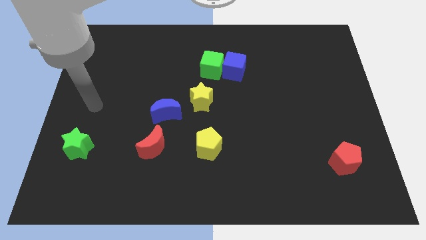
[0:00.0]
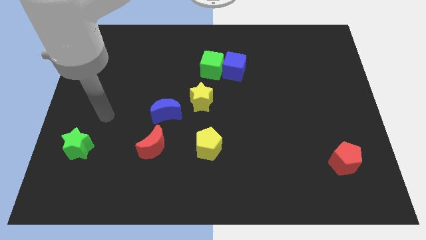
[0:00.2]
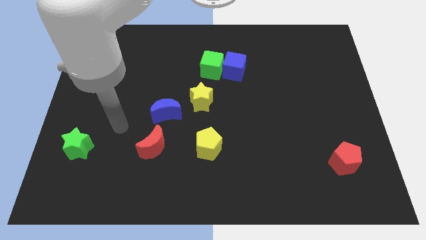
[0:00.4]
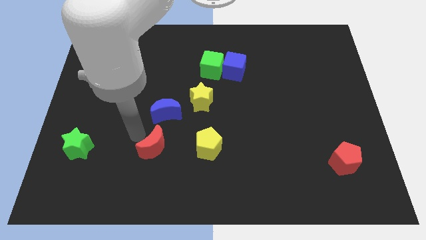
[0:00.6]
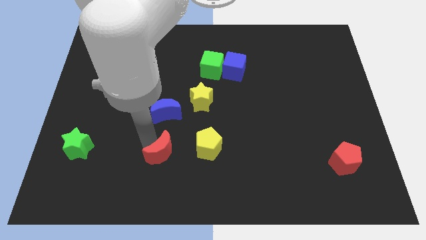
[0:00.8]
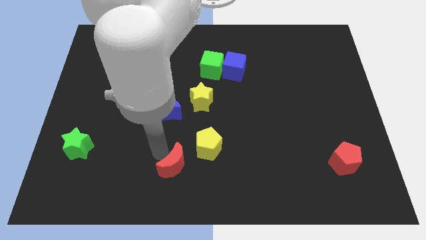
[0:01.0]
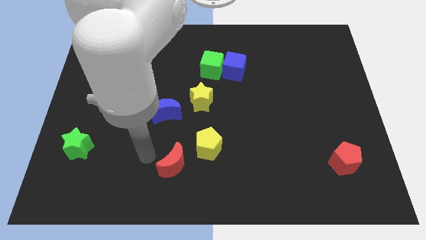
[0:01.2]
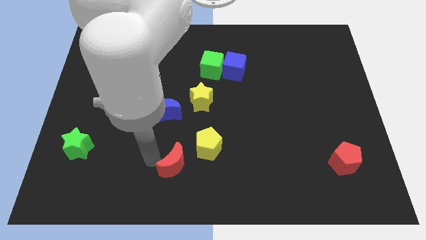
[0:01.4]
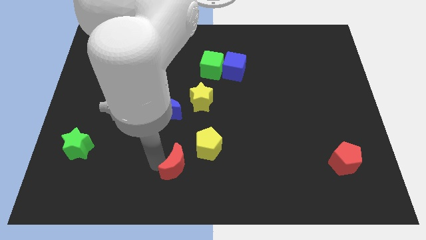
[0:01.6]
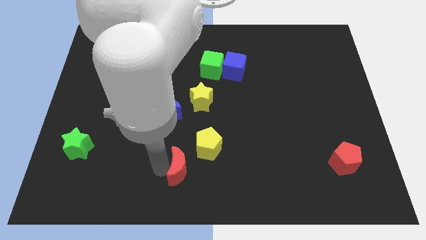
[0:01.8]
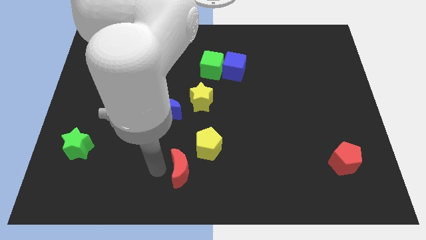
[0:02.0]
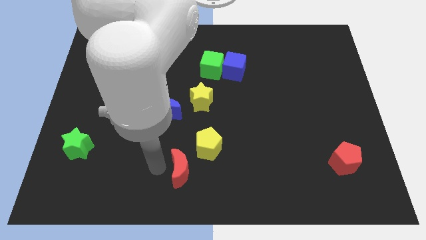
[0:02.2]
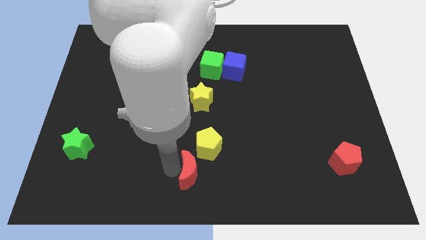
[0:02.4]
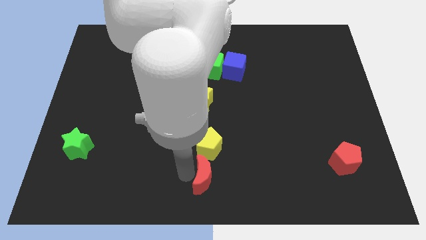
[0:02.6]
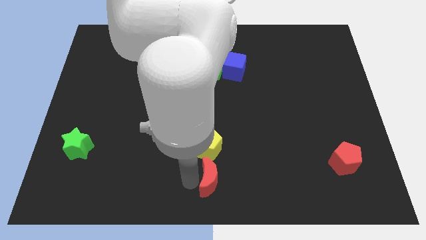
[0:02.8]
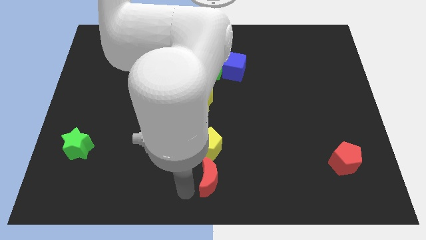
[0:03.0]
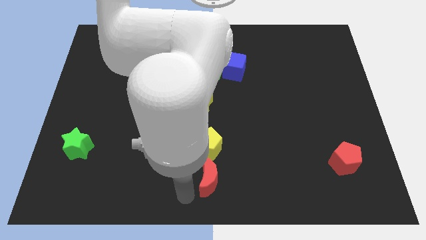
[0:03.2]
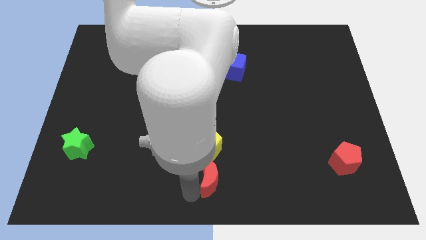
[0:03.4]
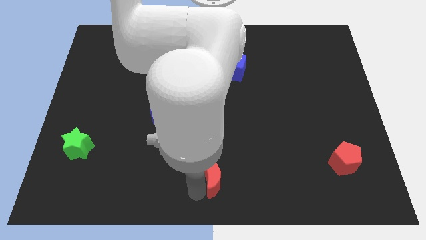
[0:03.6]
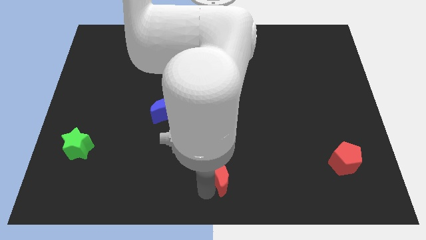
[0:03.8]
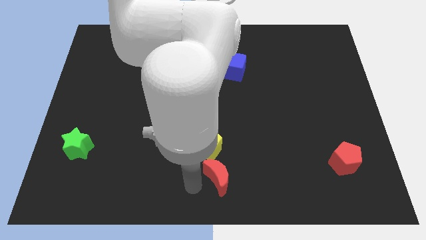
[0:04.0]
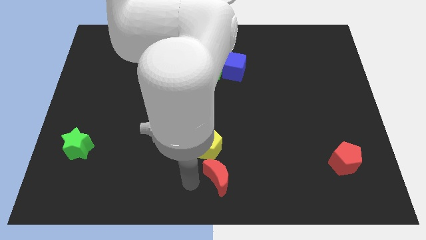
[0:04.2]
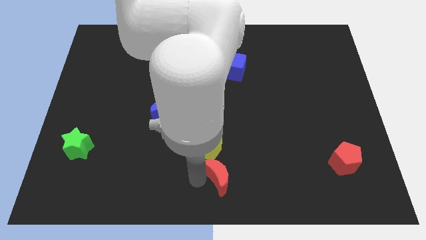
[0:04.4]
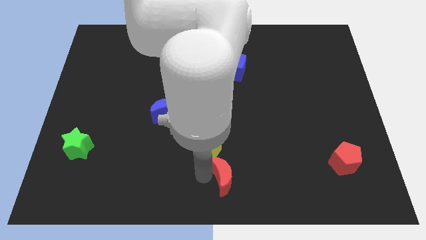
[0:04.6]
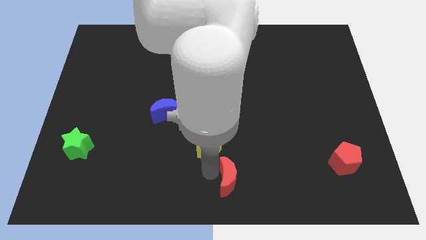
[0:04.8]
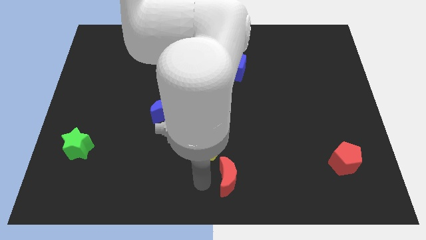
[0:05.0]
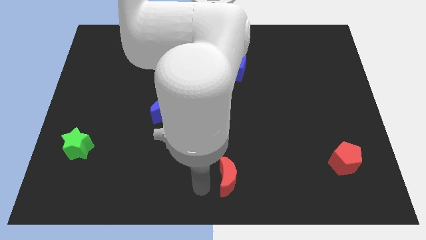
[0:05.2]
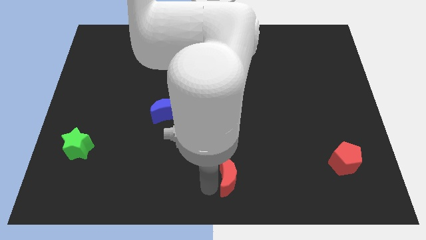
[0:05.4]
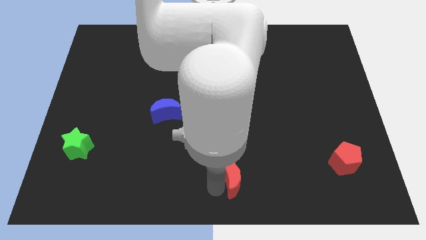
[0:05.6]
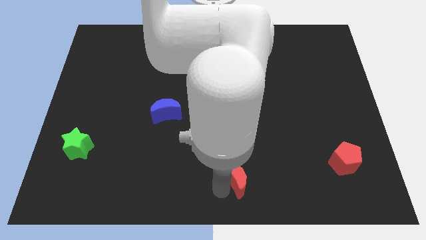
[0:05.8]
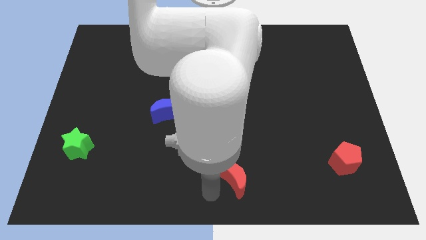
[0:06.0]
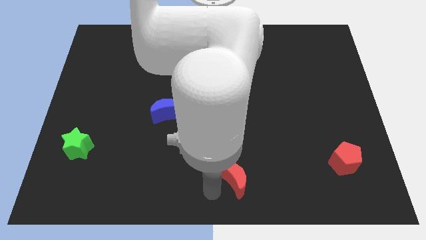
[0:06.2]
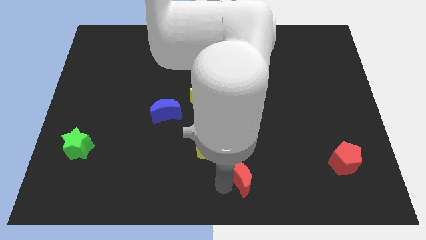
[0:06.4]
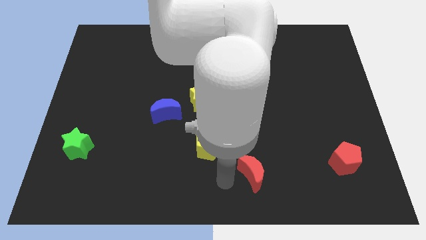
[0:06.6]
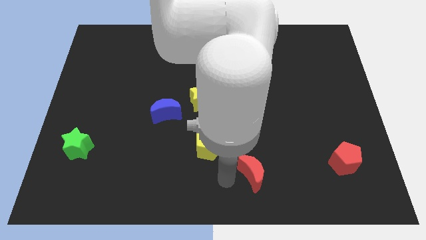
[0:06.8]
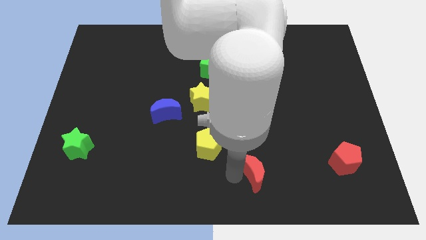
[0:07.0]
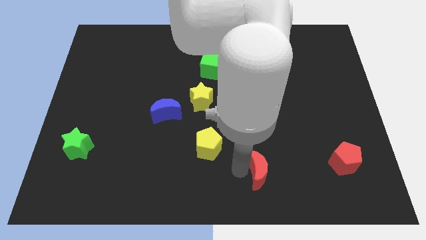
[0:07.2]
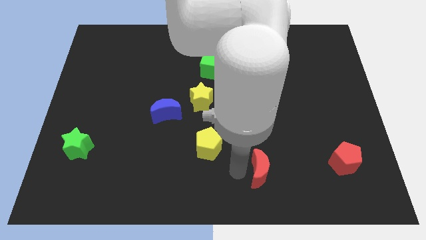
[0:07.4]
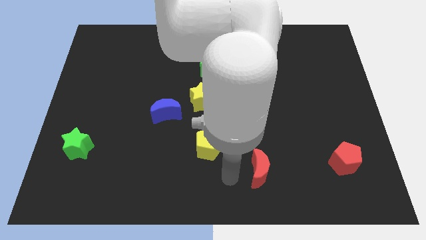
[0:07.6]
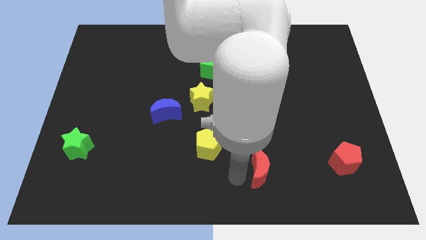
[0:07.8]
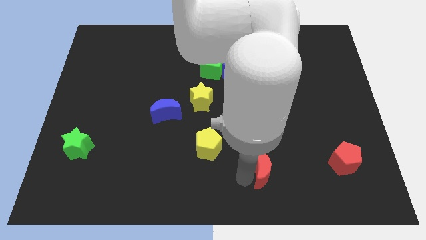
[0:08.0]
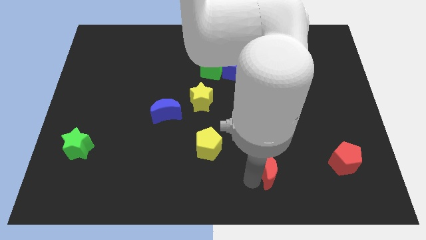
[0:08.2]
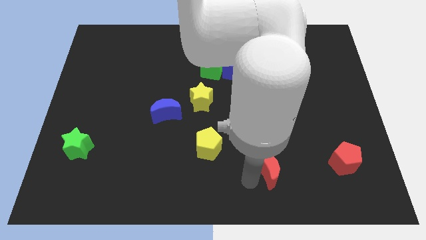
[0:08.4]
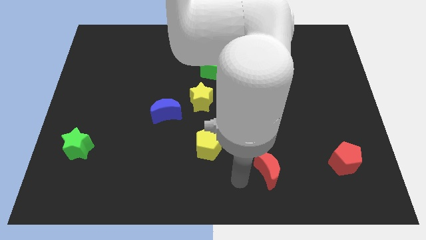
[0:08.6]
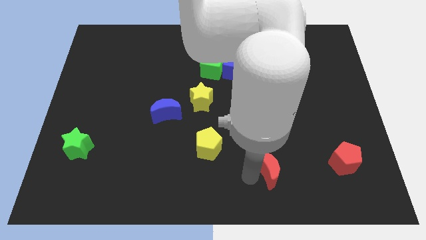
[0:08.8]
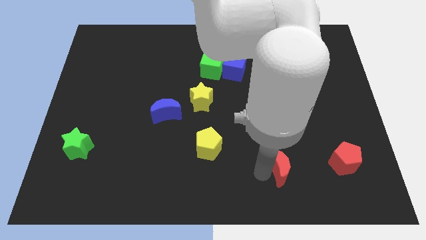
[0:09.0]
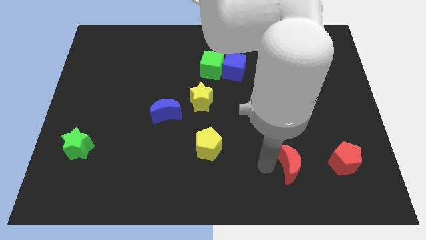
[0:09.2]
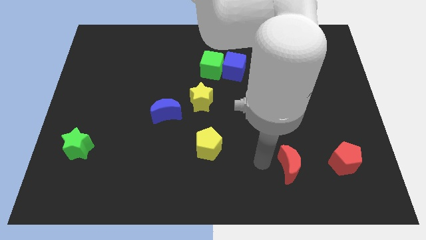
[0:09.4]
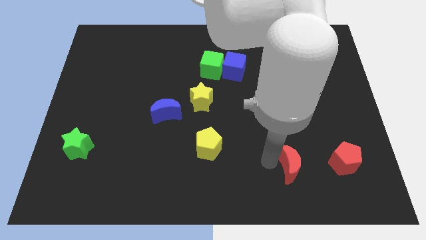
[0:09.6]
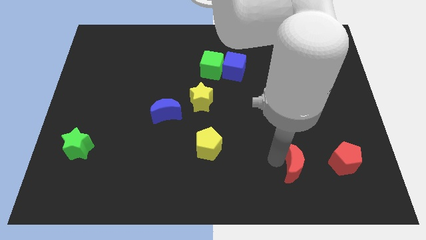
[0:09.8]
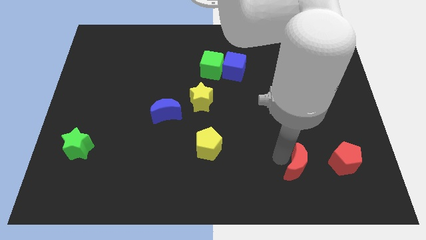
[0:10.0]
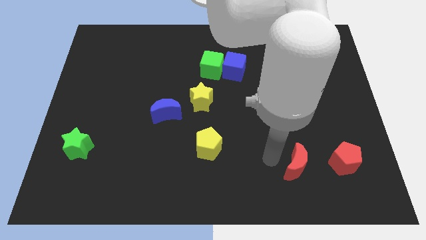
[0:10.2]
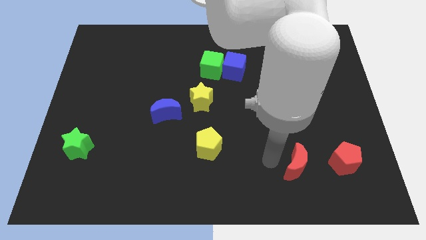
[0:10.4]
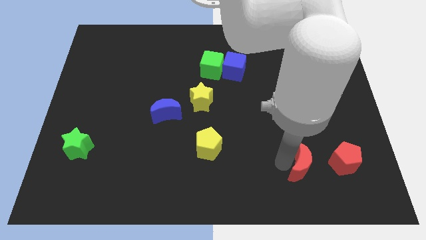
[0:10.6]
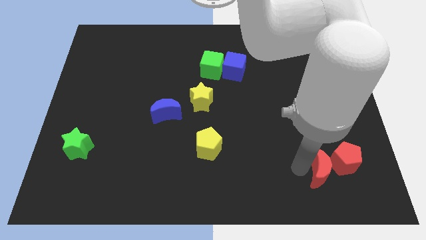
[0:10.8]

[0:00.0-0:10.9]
put the red moon towards the red pentagon

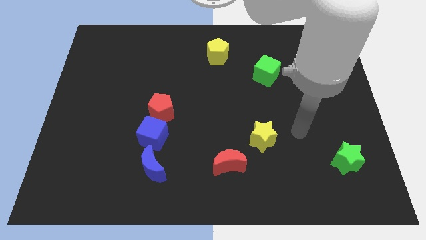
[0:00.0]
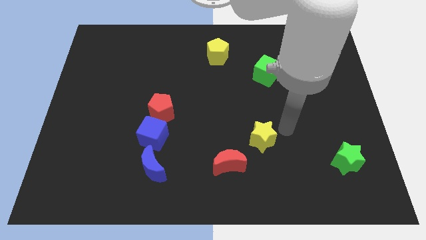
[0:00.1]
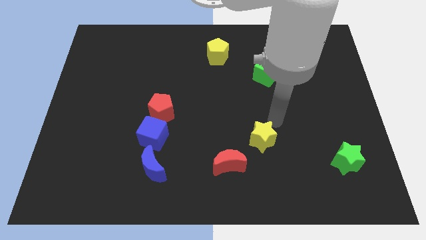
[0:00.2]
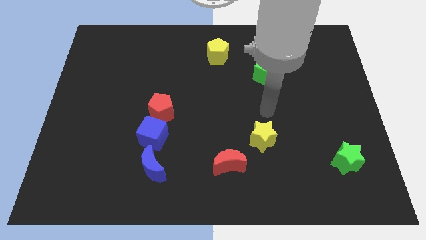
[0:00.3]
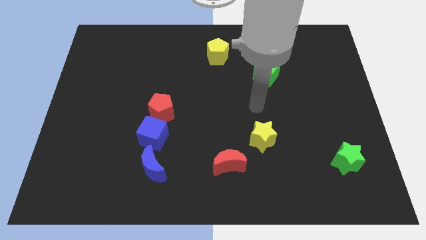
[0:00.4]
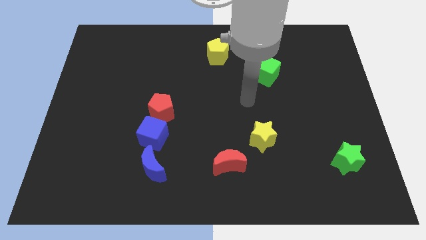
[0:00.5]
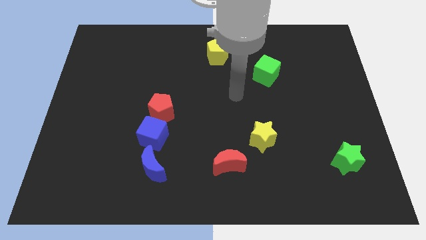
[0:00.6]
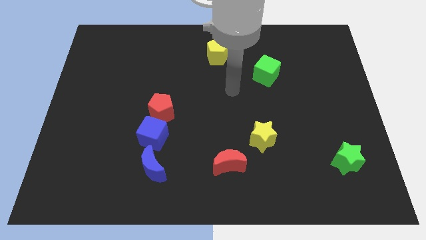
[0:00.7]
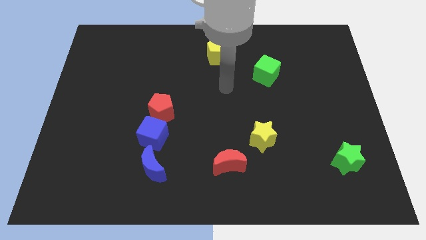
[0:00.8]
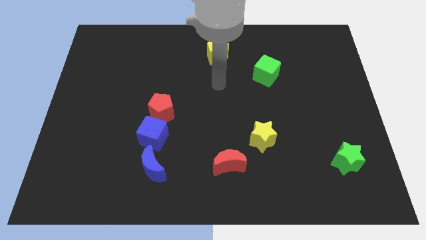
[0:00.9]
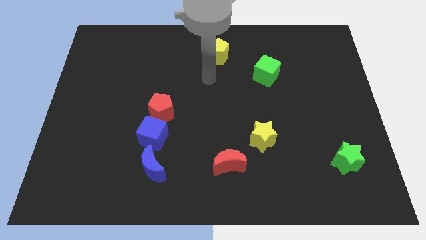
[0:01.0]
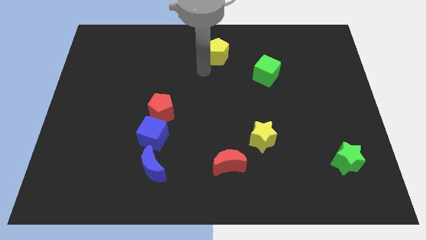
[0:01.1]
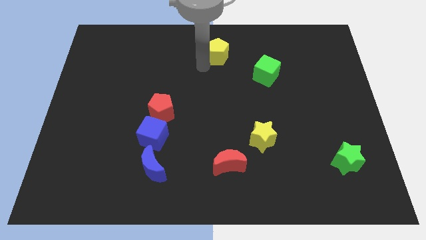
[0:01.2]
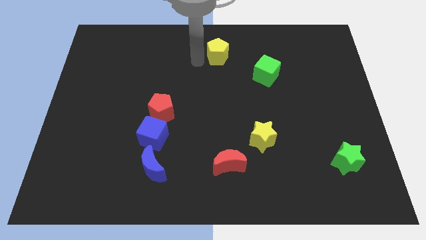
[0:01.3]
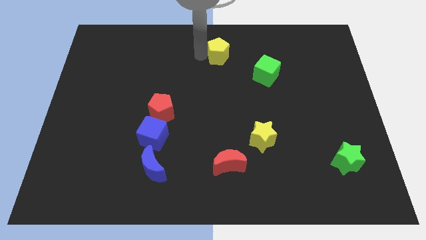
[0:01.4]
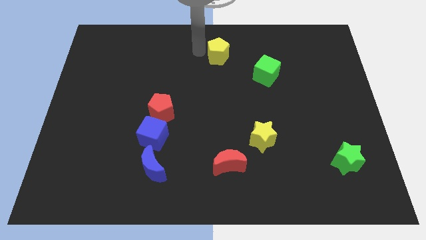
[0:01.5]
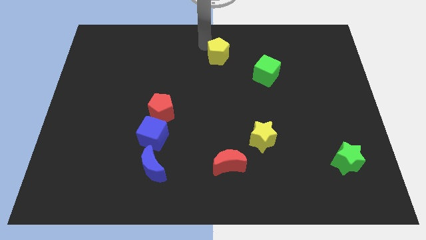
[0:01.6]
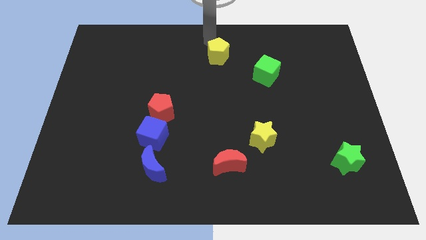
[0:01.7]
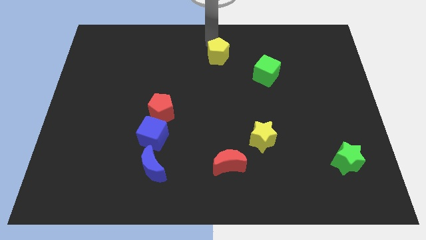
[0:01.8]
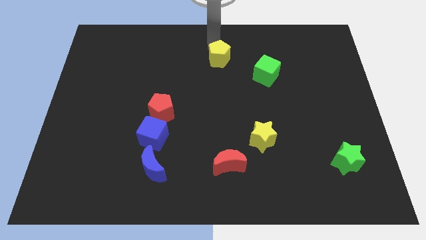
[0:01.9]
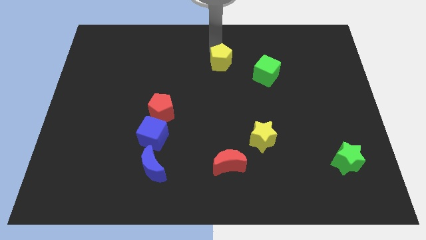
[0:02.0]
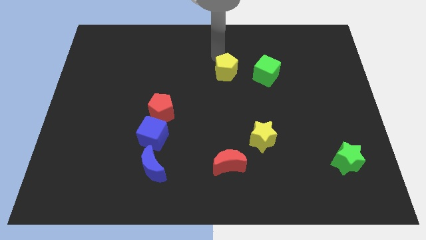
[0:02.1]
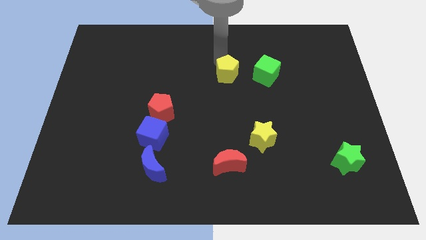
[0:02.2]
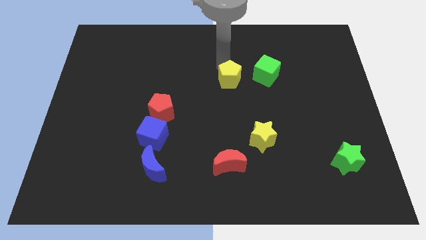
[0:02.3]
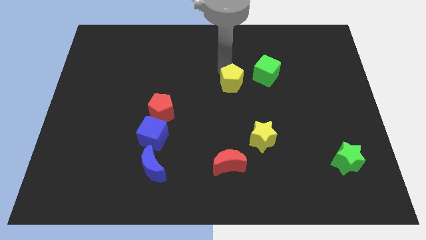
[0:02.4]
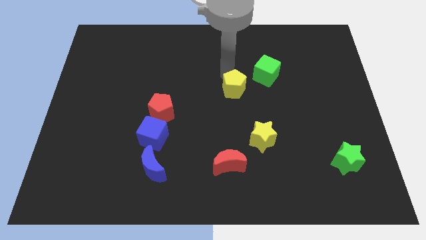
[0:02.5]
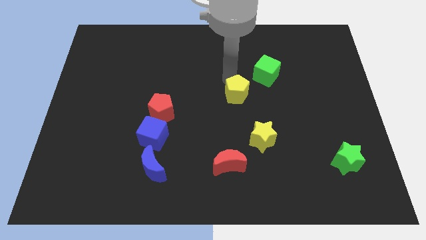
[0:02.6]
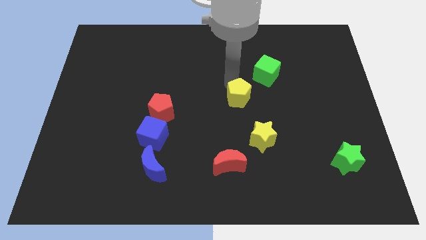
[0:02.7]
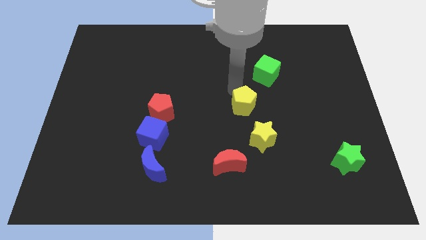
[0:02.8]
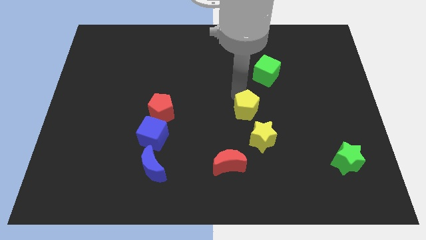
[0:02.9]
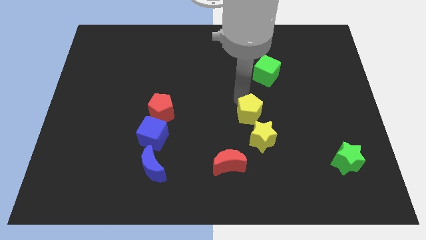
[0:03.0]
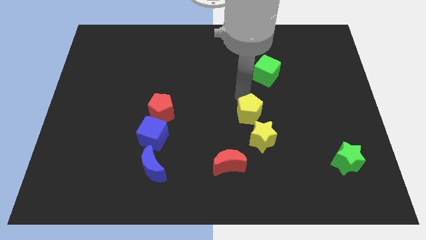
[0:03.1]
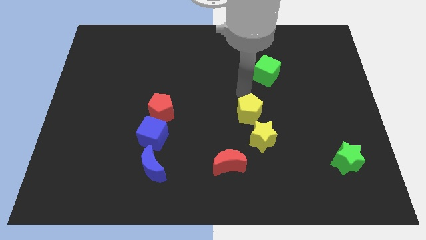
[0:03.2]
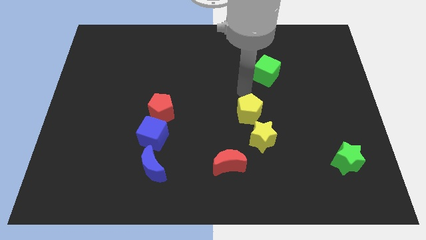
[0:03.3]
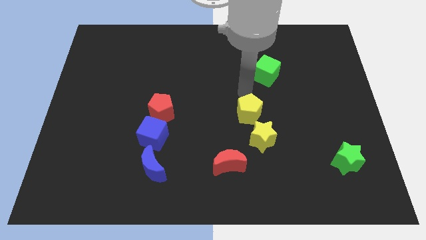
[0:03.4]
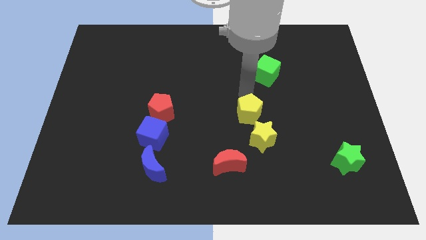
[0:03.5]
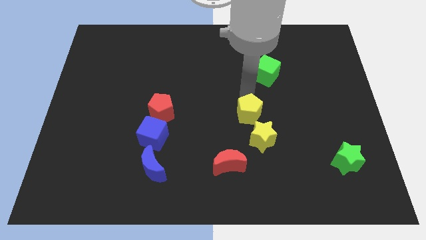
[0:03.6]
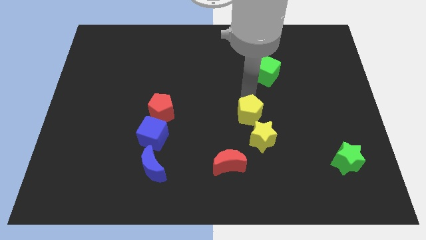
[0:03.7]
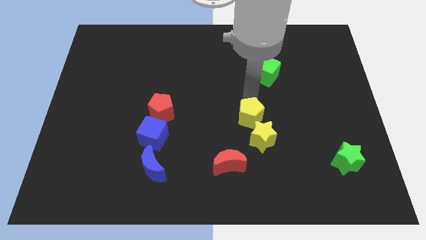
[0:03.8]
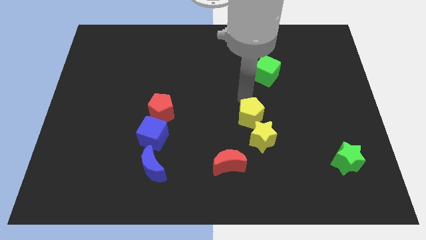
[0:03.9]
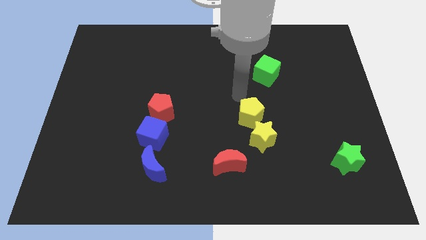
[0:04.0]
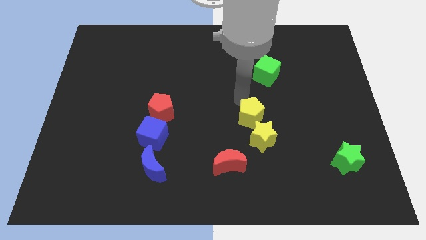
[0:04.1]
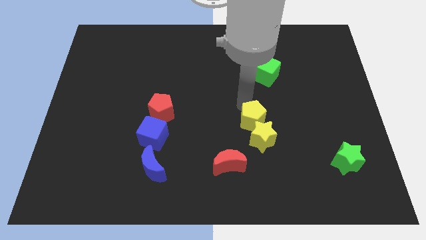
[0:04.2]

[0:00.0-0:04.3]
push the yellow pentagon to the yellow star
